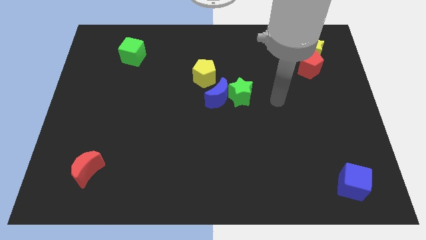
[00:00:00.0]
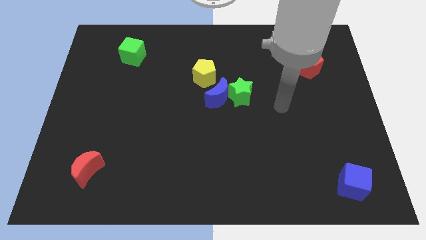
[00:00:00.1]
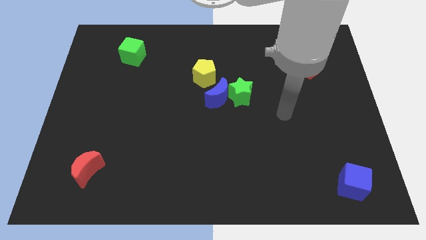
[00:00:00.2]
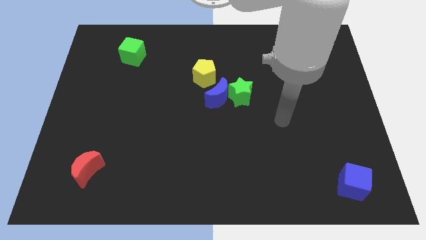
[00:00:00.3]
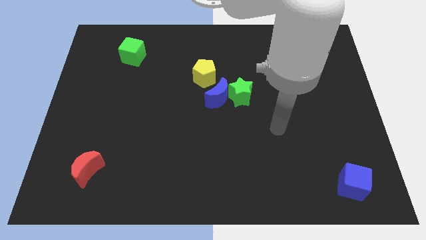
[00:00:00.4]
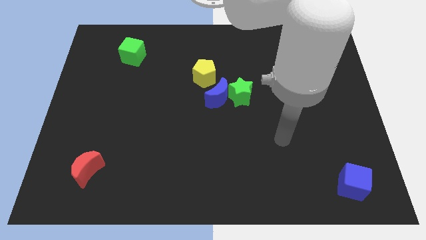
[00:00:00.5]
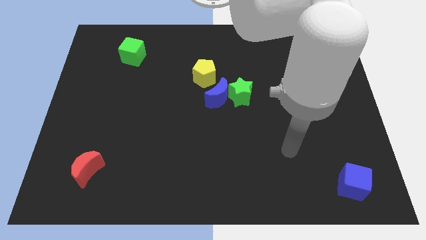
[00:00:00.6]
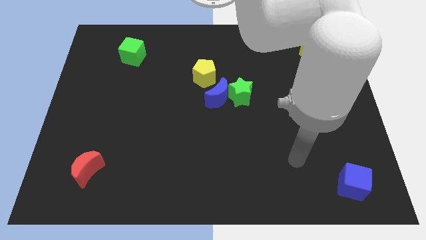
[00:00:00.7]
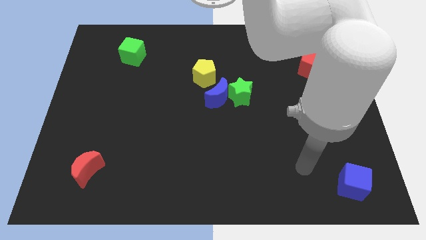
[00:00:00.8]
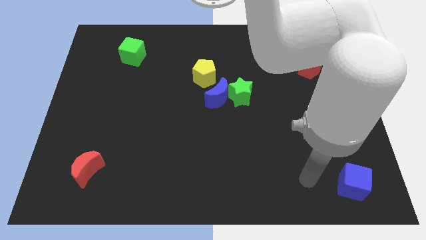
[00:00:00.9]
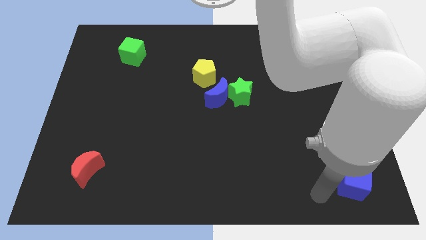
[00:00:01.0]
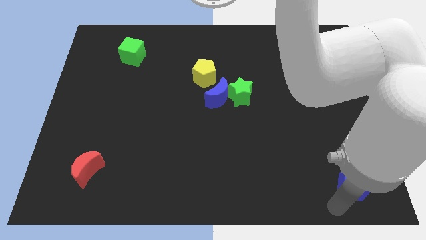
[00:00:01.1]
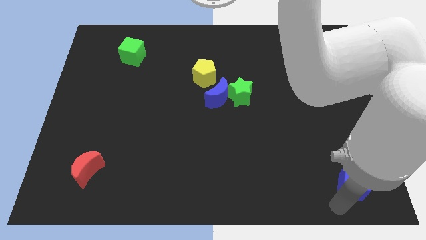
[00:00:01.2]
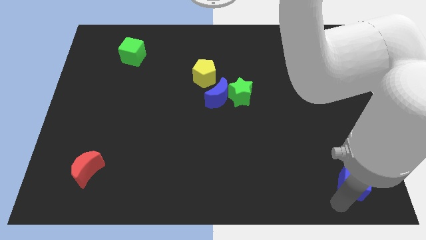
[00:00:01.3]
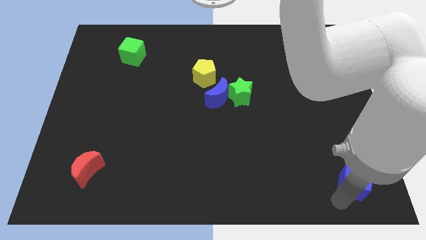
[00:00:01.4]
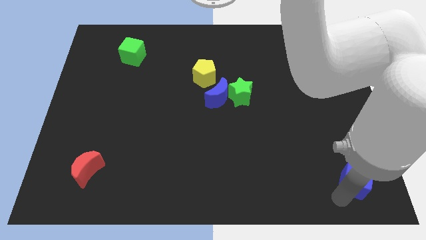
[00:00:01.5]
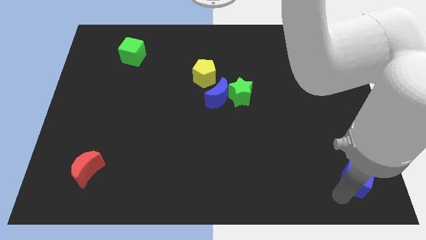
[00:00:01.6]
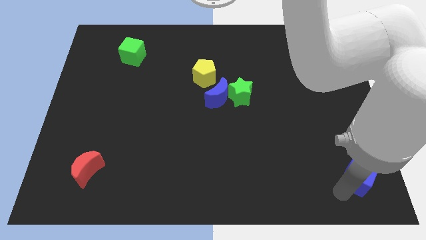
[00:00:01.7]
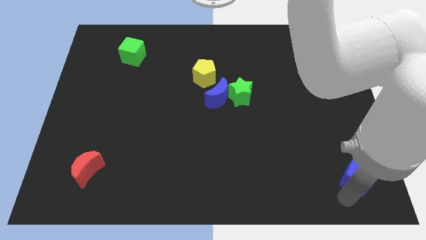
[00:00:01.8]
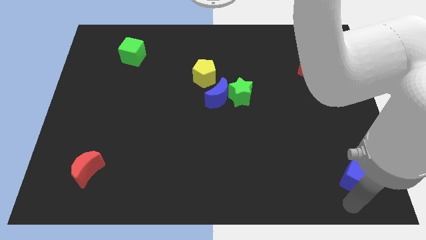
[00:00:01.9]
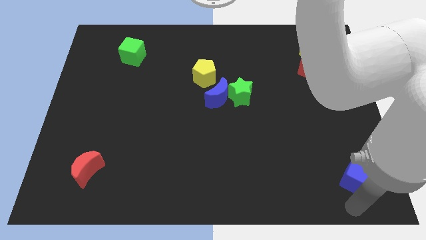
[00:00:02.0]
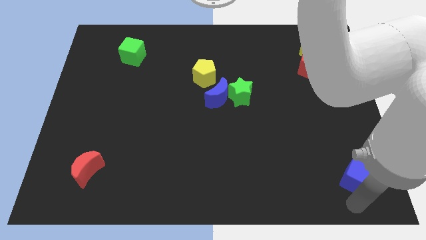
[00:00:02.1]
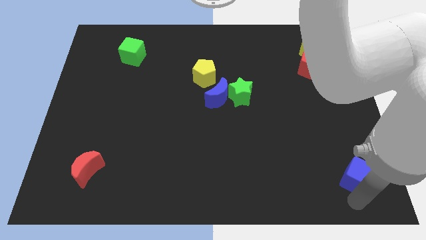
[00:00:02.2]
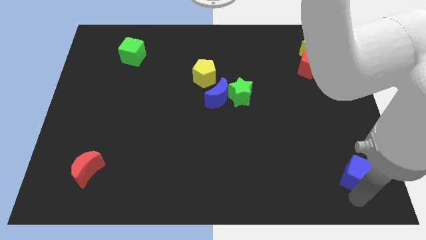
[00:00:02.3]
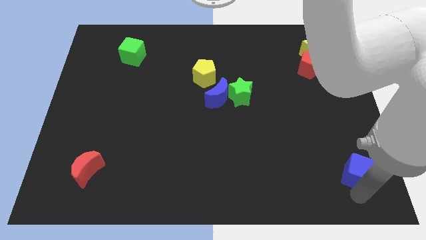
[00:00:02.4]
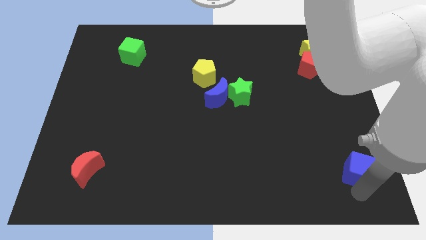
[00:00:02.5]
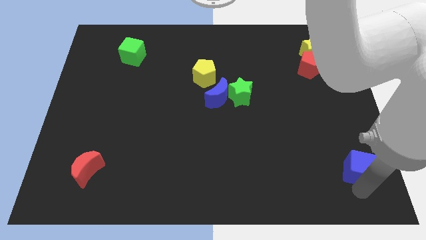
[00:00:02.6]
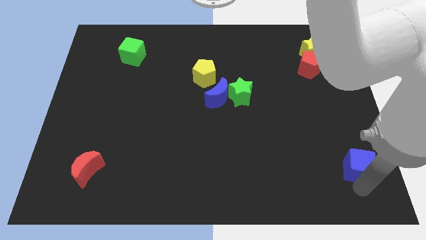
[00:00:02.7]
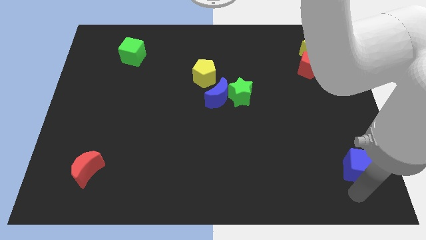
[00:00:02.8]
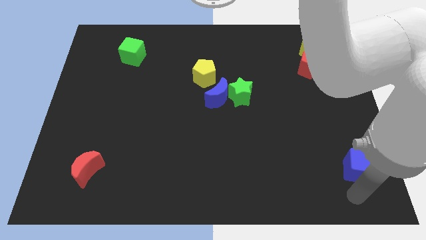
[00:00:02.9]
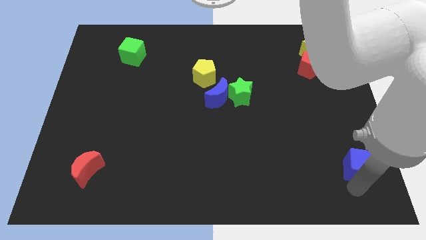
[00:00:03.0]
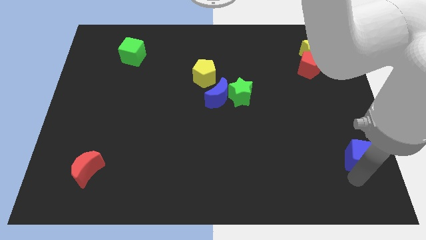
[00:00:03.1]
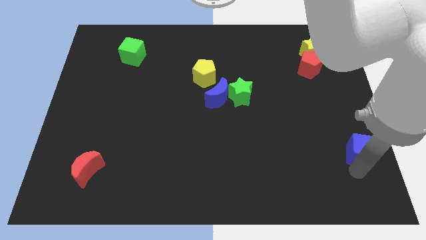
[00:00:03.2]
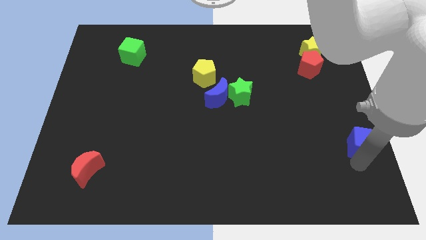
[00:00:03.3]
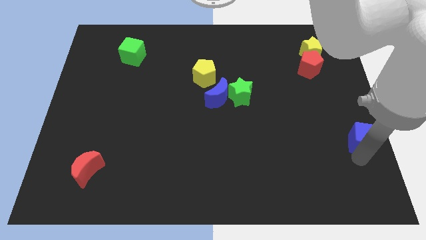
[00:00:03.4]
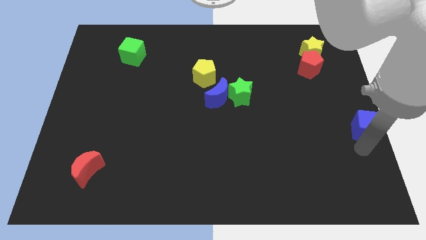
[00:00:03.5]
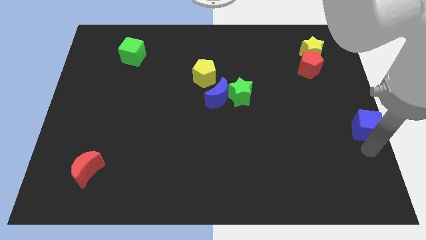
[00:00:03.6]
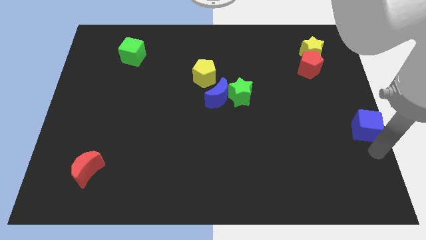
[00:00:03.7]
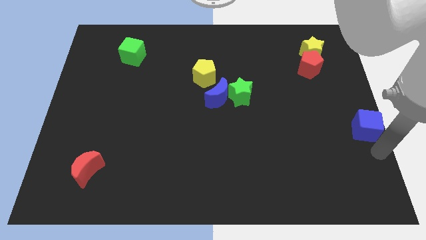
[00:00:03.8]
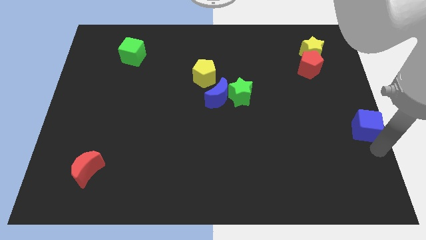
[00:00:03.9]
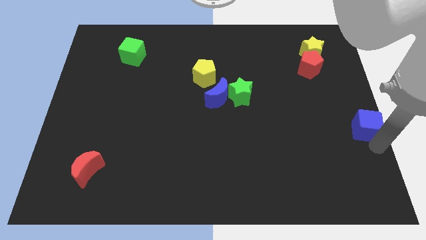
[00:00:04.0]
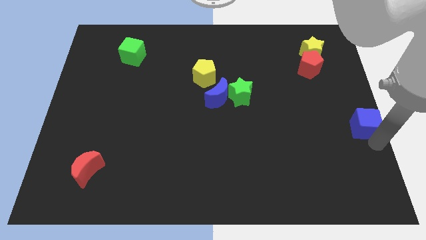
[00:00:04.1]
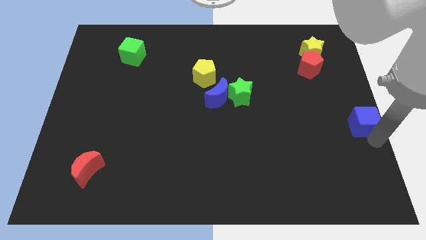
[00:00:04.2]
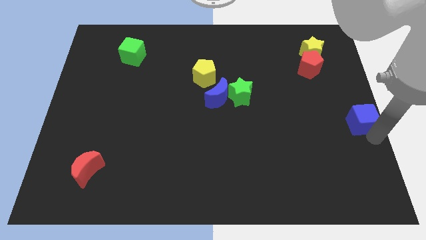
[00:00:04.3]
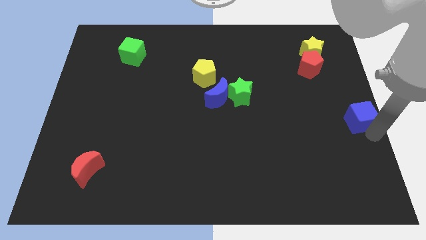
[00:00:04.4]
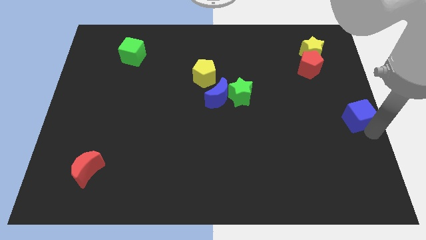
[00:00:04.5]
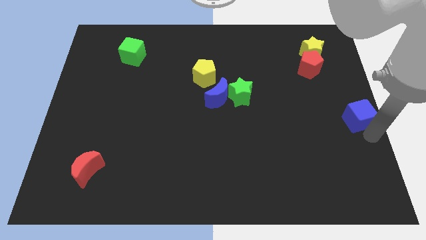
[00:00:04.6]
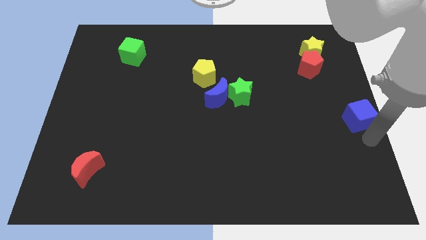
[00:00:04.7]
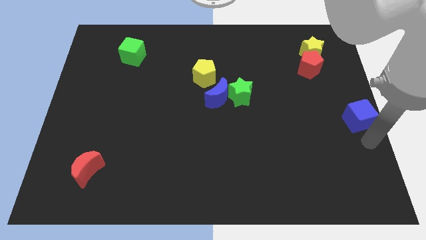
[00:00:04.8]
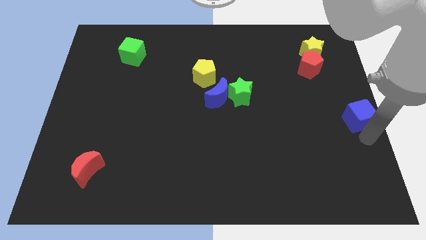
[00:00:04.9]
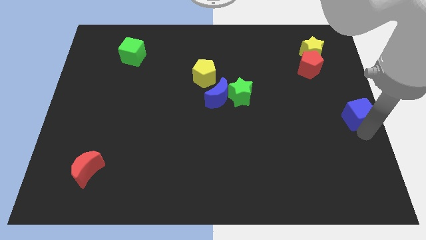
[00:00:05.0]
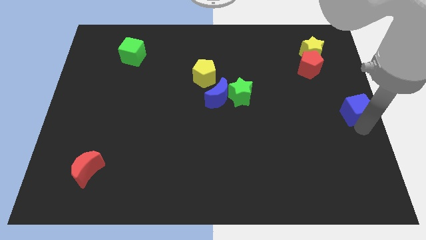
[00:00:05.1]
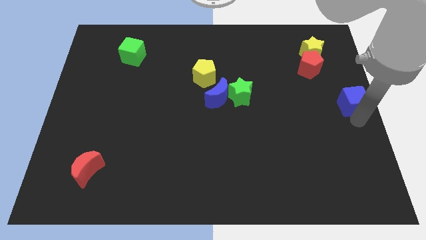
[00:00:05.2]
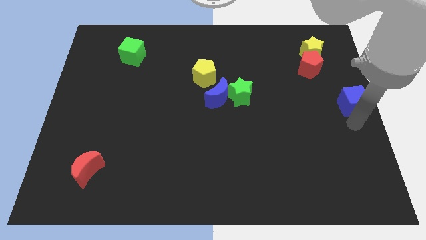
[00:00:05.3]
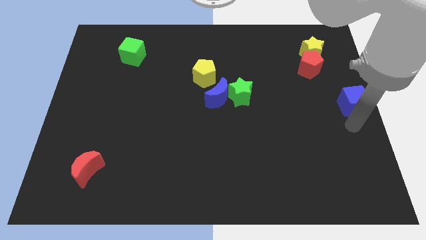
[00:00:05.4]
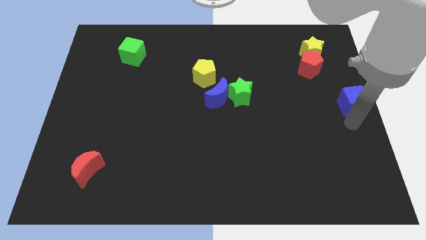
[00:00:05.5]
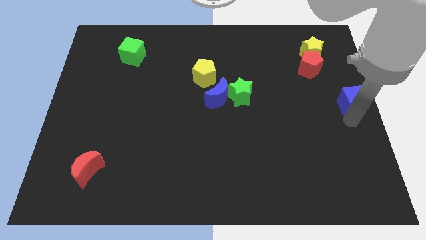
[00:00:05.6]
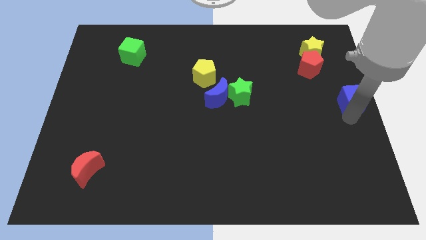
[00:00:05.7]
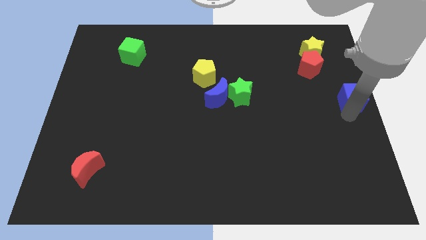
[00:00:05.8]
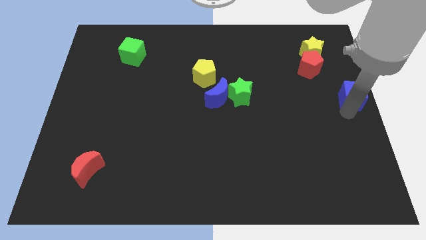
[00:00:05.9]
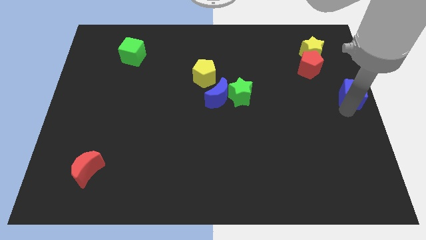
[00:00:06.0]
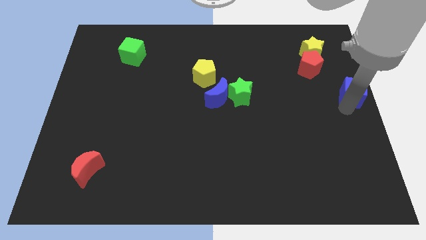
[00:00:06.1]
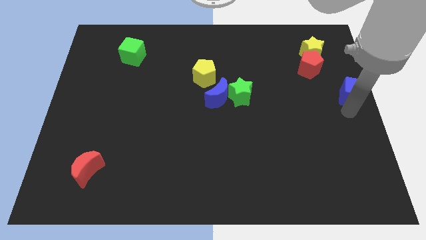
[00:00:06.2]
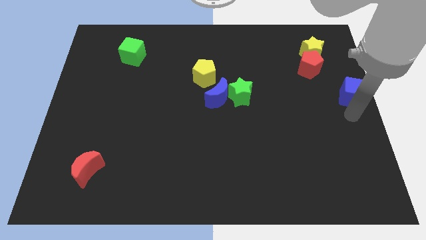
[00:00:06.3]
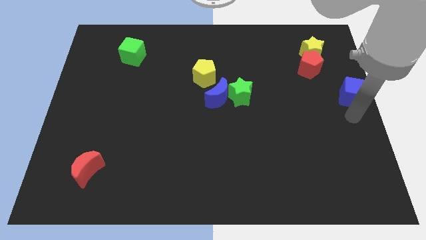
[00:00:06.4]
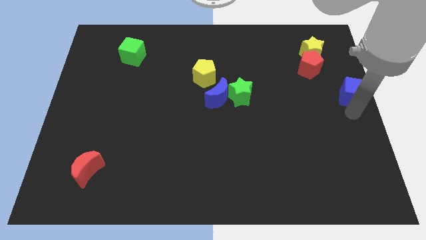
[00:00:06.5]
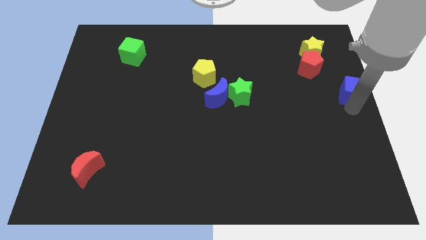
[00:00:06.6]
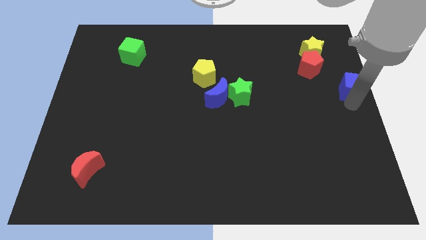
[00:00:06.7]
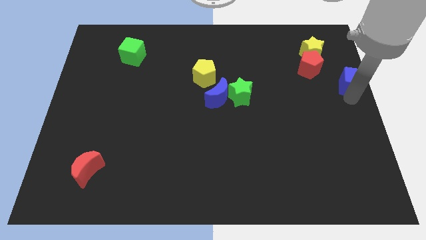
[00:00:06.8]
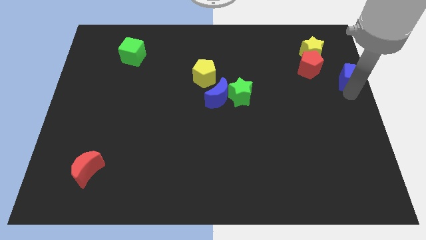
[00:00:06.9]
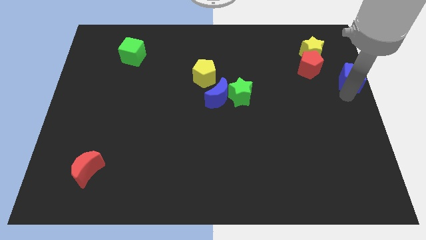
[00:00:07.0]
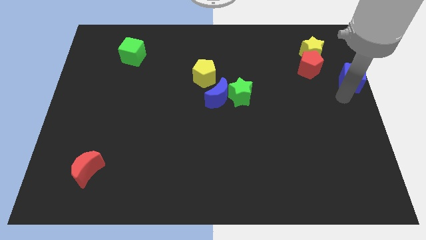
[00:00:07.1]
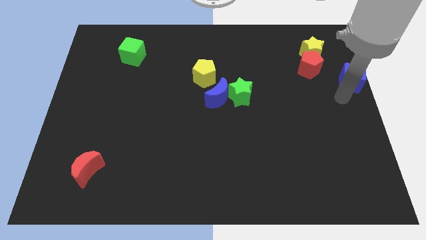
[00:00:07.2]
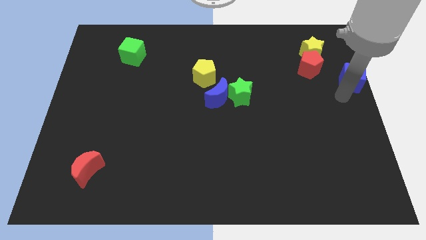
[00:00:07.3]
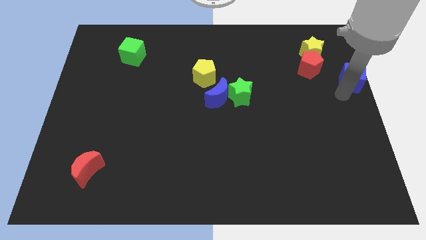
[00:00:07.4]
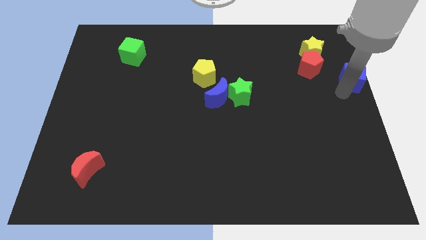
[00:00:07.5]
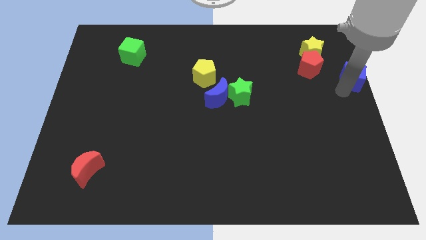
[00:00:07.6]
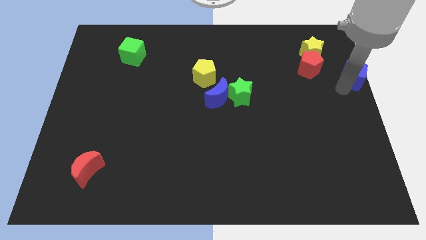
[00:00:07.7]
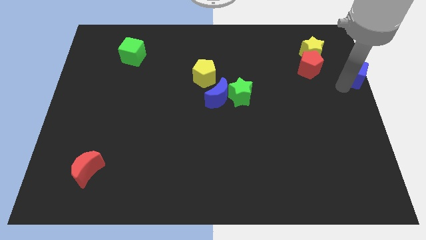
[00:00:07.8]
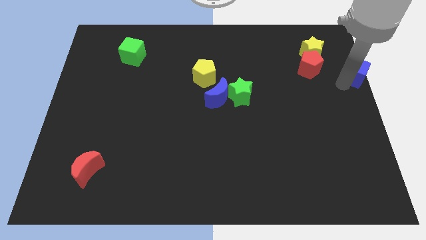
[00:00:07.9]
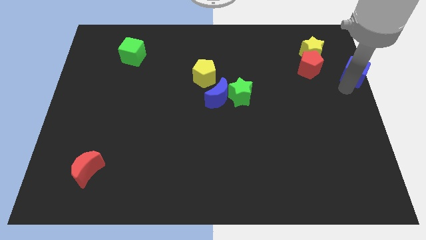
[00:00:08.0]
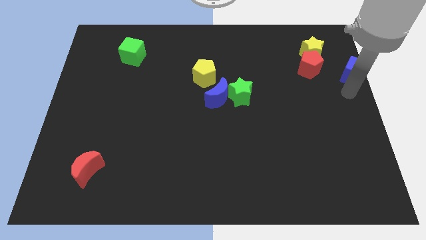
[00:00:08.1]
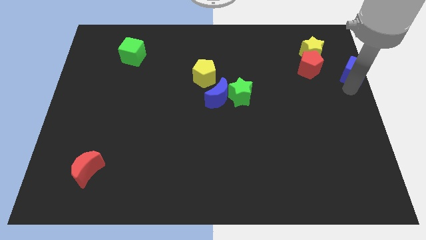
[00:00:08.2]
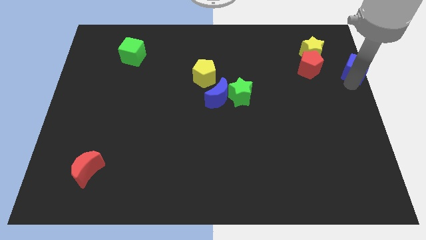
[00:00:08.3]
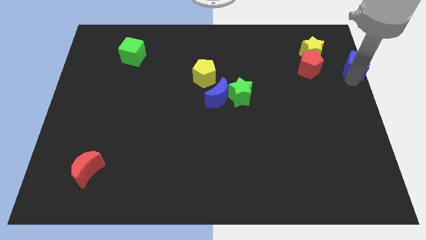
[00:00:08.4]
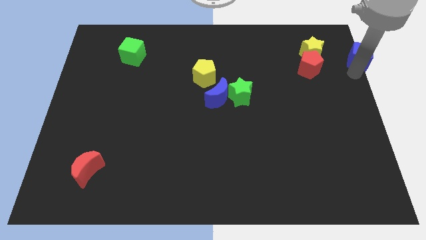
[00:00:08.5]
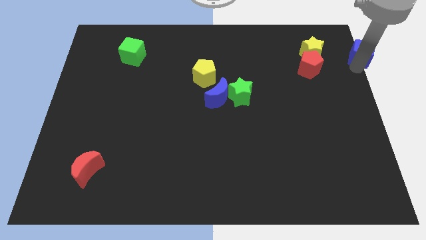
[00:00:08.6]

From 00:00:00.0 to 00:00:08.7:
put the blue cube to the top right of the board
